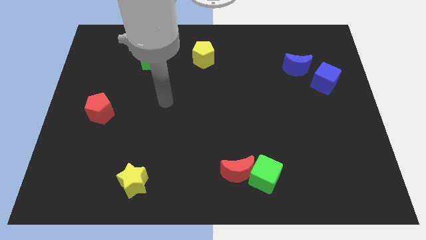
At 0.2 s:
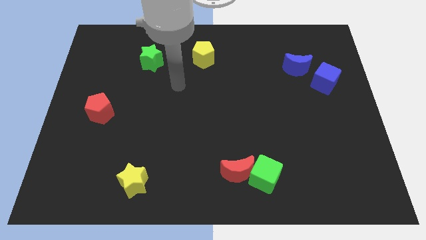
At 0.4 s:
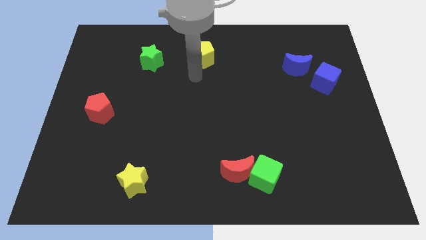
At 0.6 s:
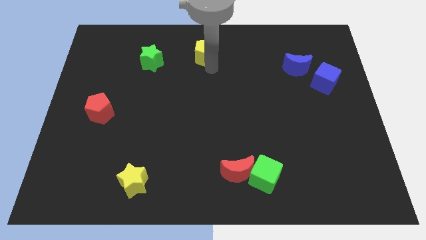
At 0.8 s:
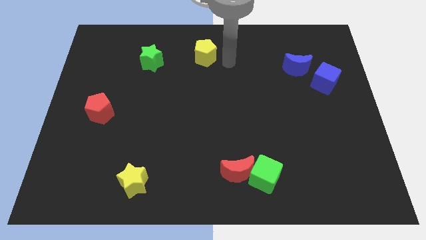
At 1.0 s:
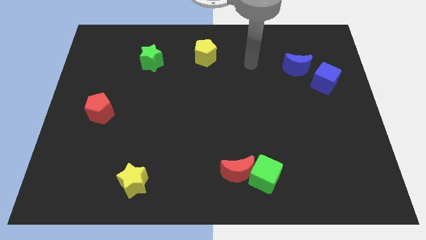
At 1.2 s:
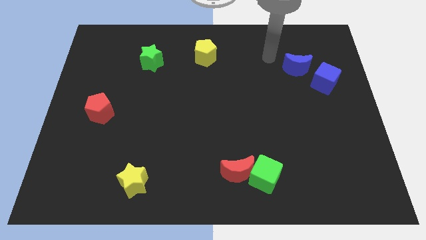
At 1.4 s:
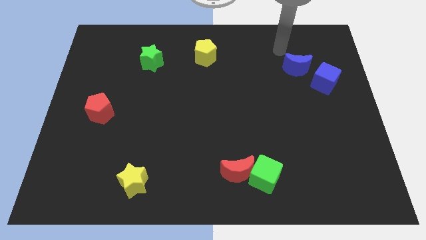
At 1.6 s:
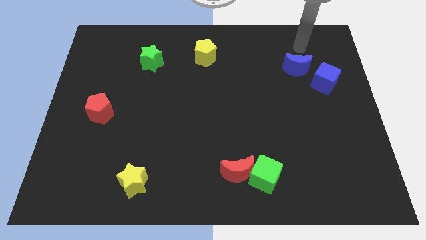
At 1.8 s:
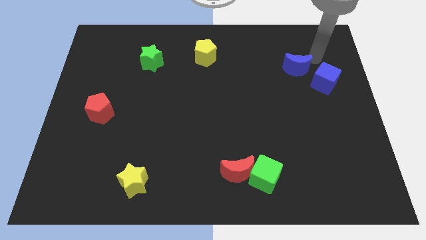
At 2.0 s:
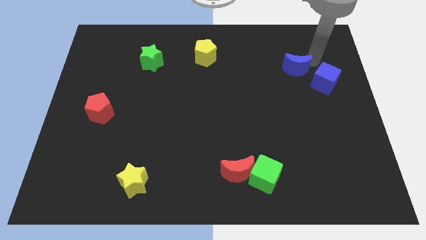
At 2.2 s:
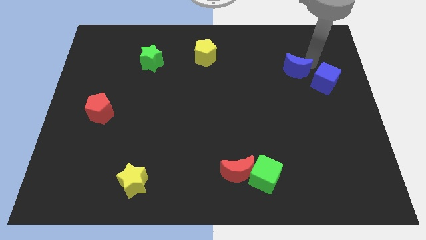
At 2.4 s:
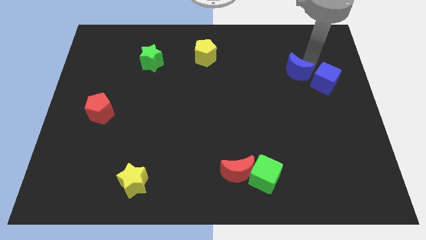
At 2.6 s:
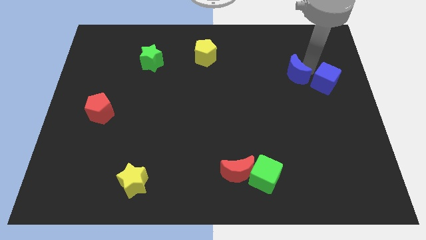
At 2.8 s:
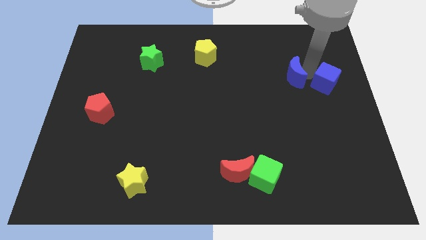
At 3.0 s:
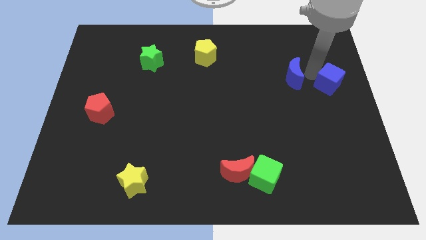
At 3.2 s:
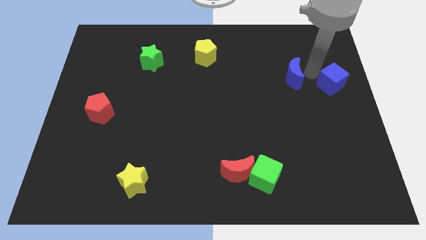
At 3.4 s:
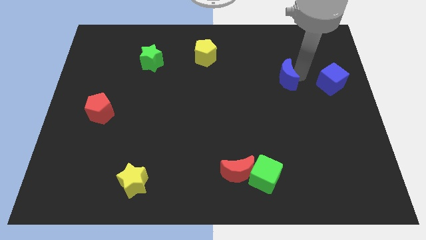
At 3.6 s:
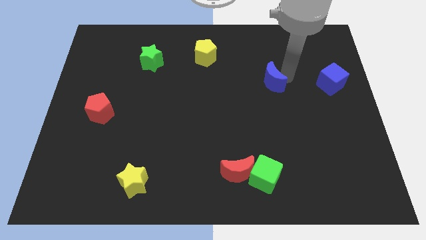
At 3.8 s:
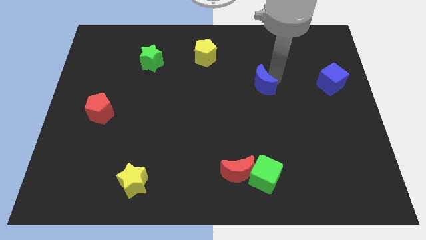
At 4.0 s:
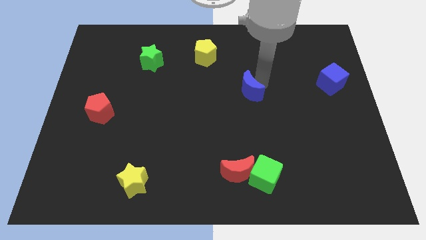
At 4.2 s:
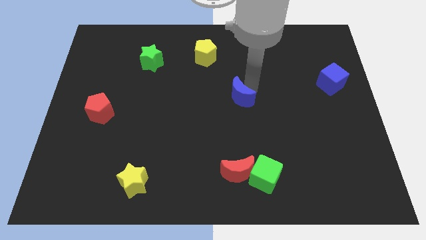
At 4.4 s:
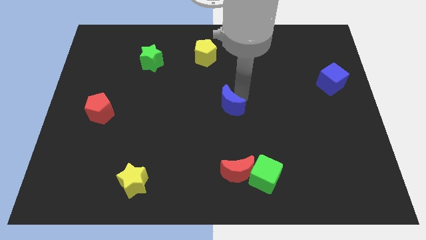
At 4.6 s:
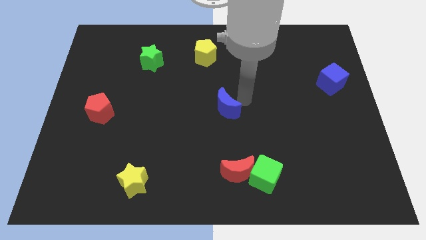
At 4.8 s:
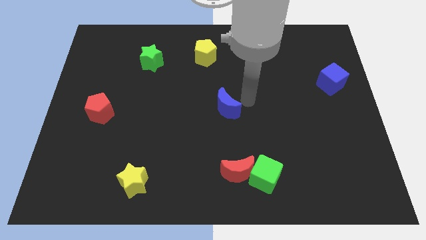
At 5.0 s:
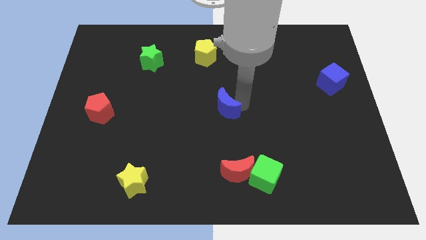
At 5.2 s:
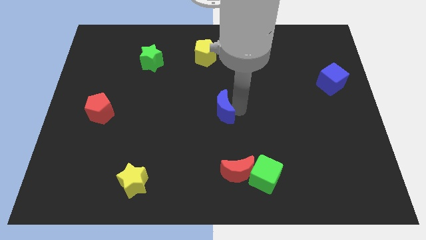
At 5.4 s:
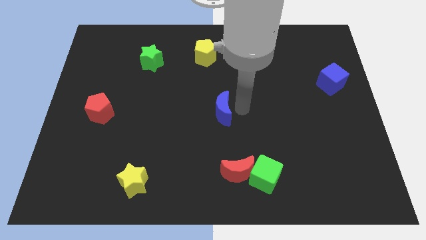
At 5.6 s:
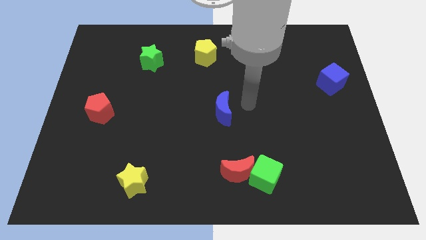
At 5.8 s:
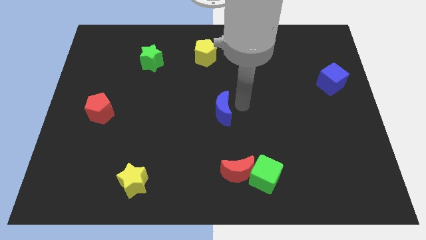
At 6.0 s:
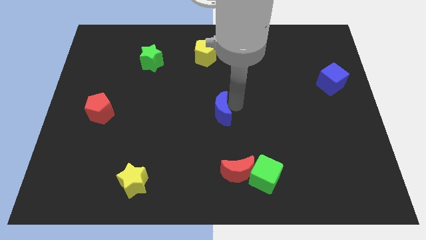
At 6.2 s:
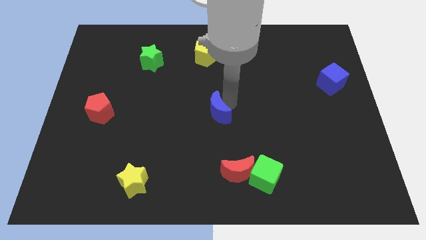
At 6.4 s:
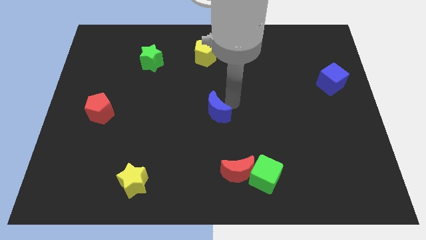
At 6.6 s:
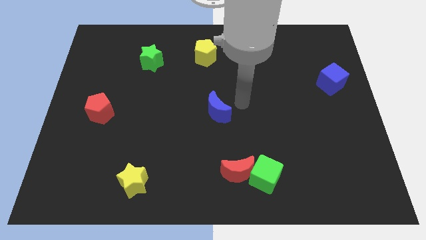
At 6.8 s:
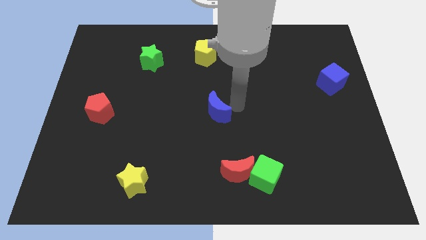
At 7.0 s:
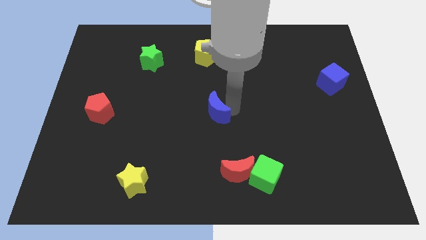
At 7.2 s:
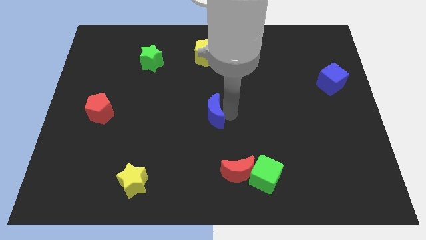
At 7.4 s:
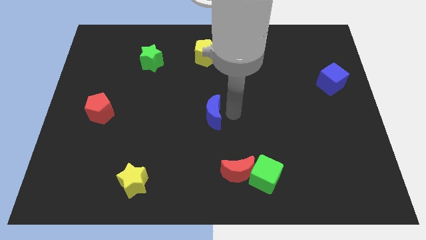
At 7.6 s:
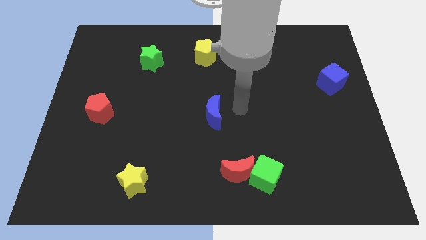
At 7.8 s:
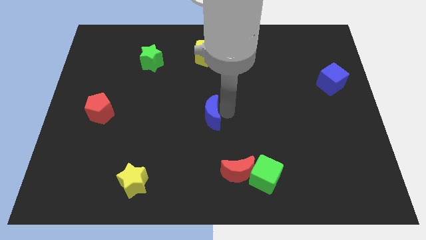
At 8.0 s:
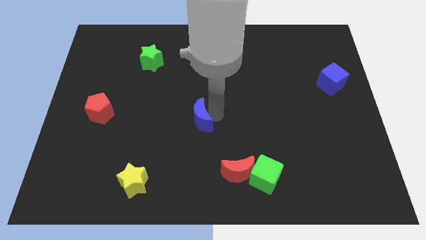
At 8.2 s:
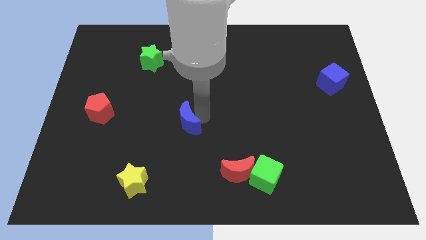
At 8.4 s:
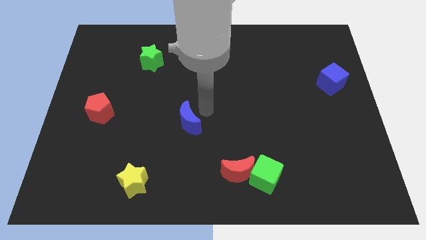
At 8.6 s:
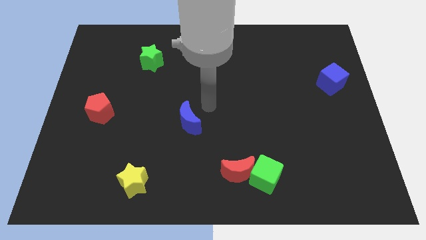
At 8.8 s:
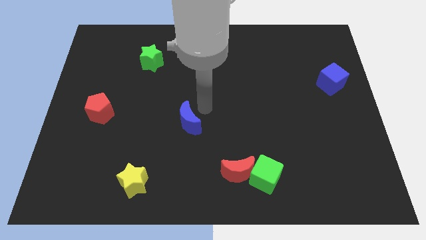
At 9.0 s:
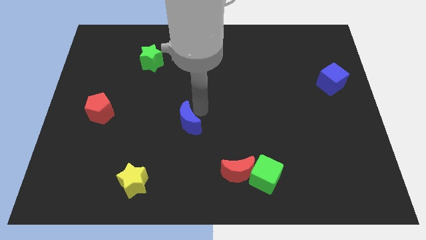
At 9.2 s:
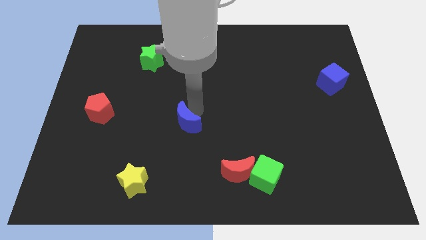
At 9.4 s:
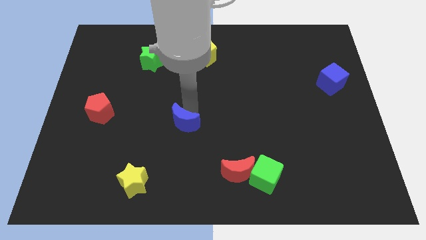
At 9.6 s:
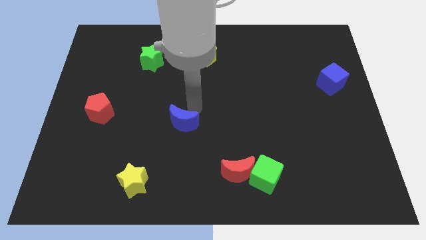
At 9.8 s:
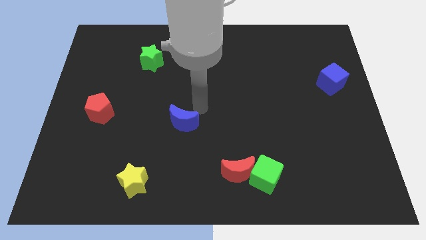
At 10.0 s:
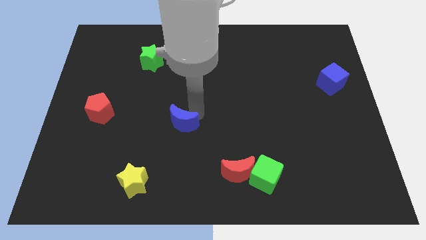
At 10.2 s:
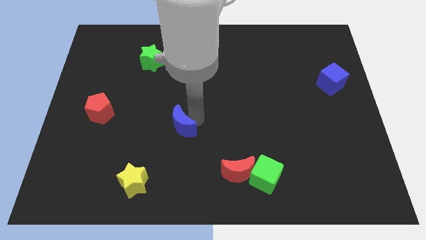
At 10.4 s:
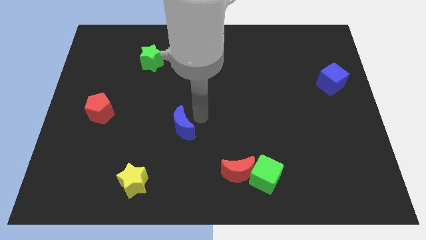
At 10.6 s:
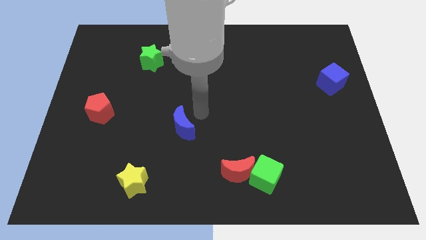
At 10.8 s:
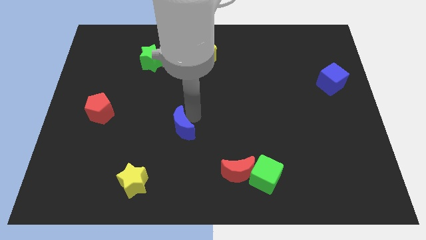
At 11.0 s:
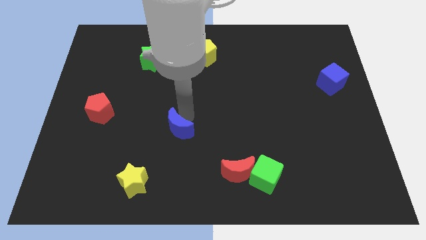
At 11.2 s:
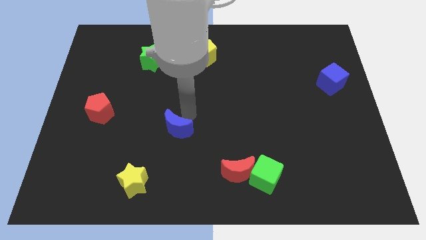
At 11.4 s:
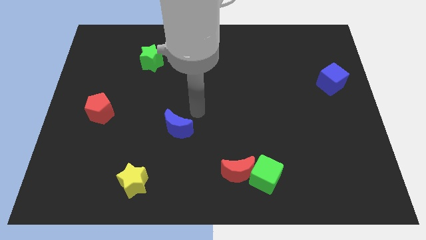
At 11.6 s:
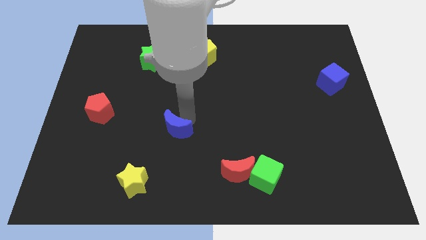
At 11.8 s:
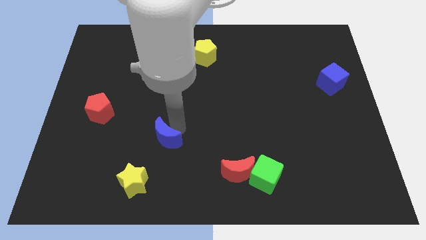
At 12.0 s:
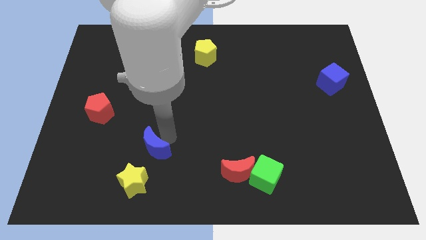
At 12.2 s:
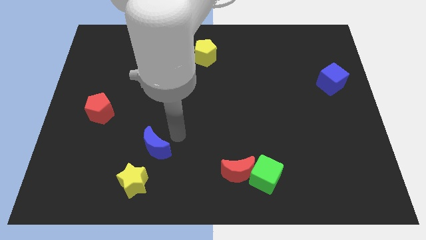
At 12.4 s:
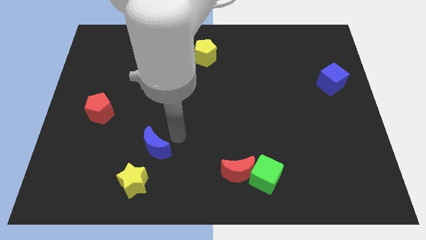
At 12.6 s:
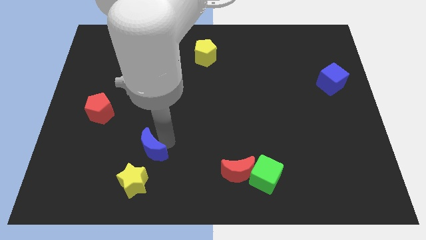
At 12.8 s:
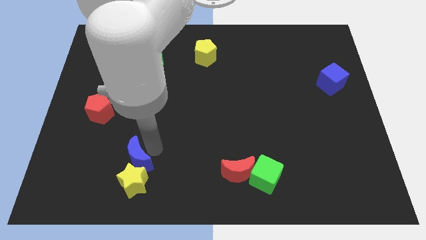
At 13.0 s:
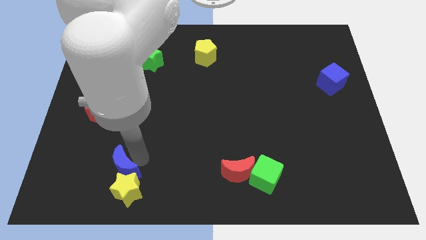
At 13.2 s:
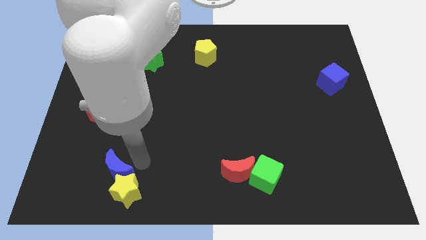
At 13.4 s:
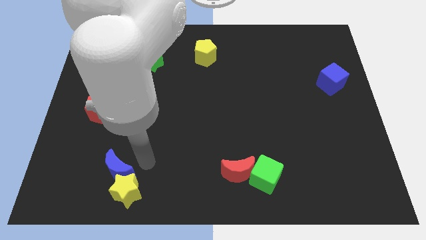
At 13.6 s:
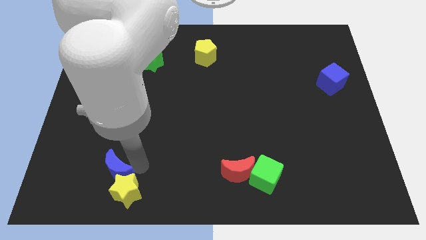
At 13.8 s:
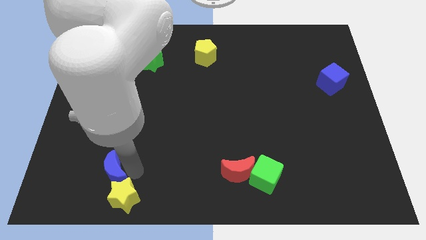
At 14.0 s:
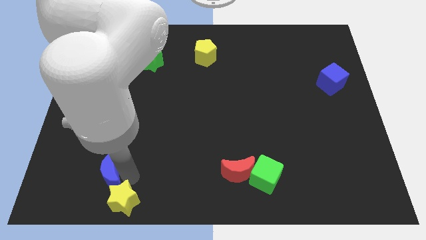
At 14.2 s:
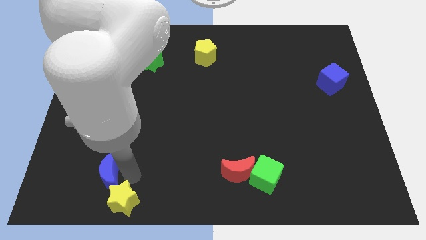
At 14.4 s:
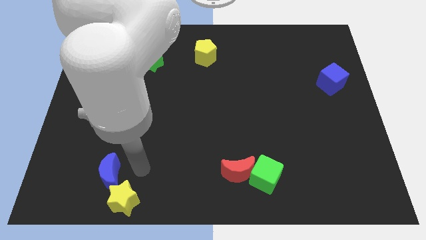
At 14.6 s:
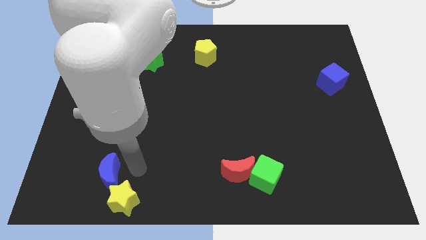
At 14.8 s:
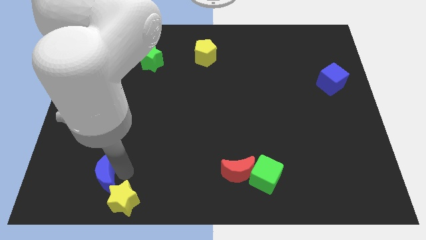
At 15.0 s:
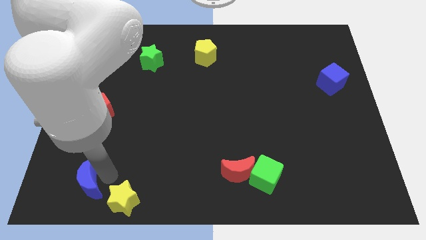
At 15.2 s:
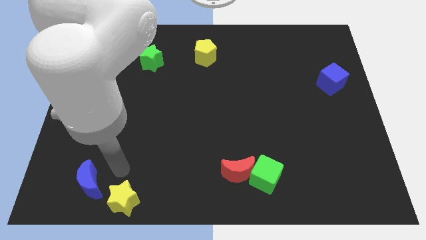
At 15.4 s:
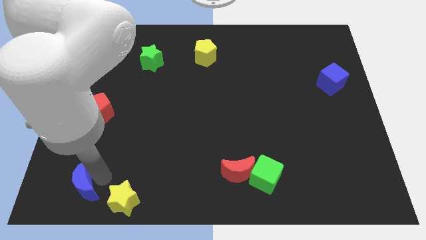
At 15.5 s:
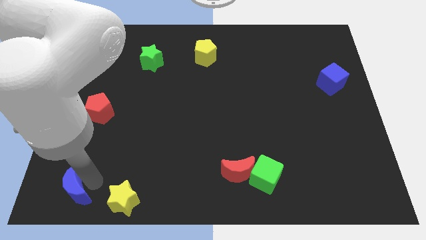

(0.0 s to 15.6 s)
slide the blue moon to the bottom left corner
